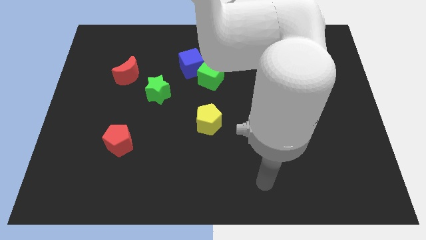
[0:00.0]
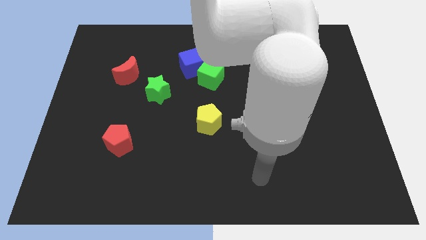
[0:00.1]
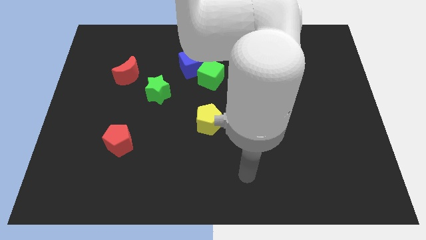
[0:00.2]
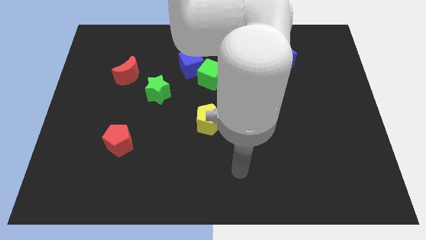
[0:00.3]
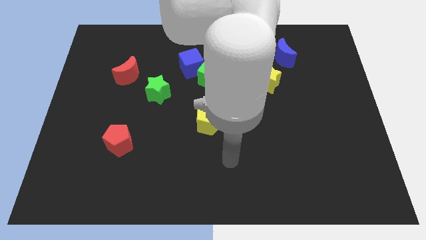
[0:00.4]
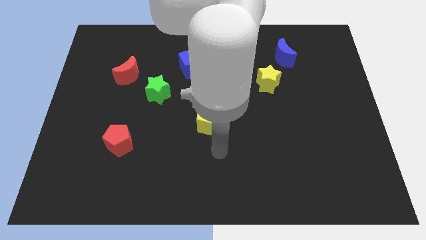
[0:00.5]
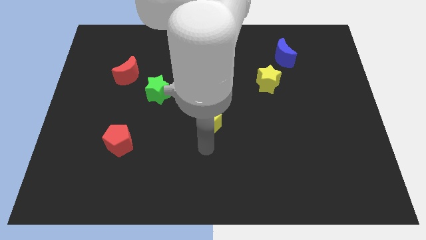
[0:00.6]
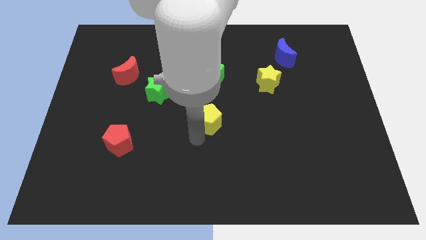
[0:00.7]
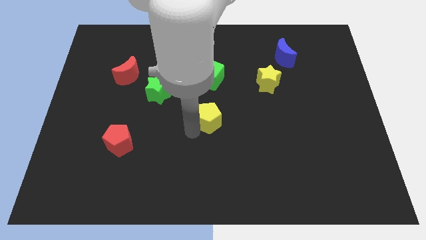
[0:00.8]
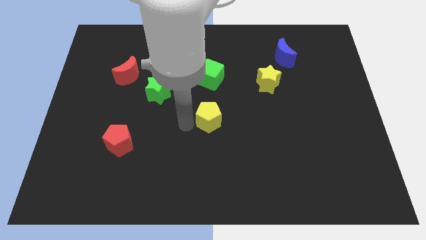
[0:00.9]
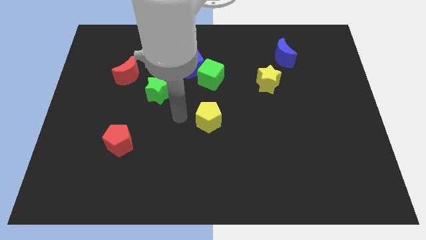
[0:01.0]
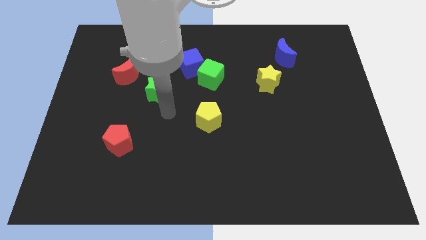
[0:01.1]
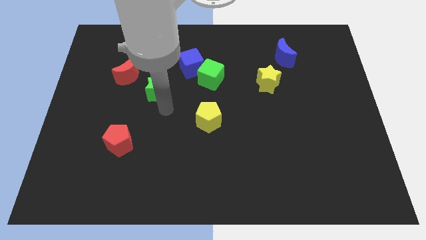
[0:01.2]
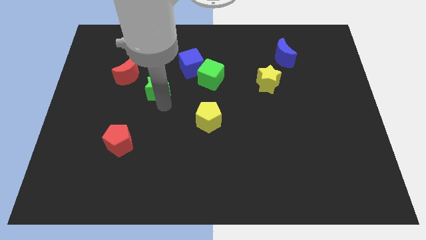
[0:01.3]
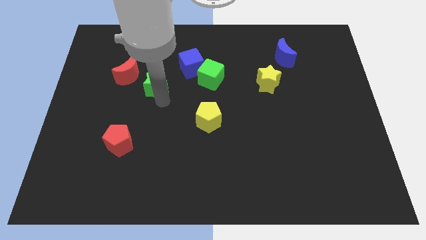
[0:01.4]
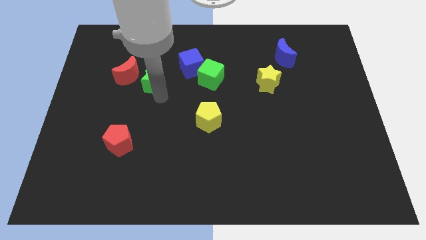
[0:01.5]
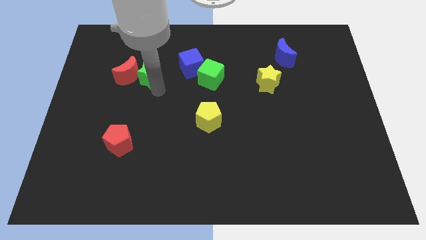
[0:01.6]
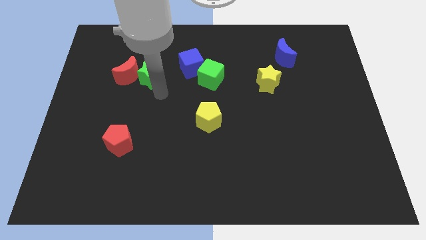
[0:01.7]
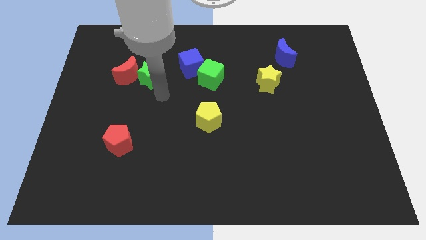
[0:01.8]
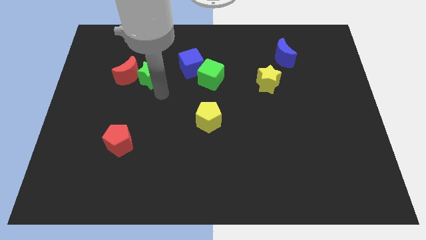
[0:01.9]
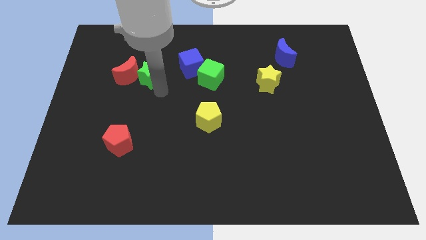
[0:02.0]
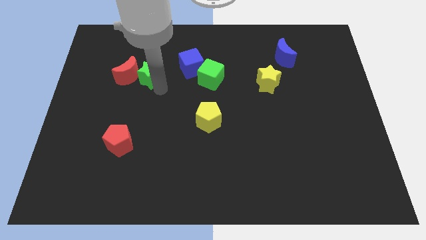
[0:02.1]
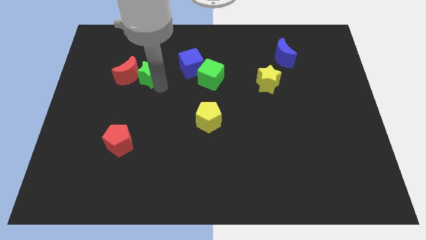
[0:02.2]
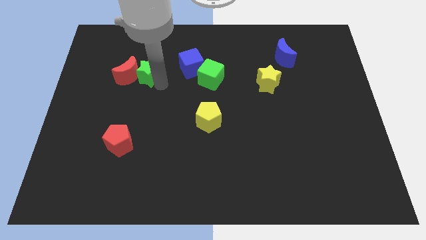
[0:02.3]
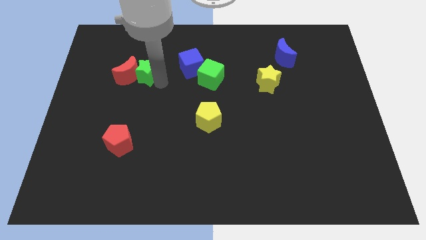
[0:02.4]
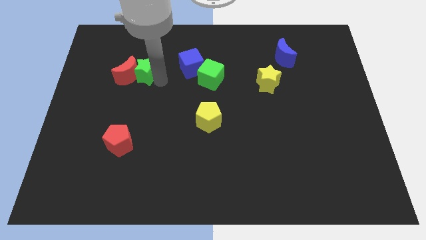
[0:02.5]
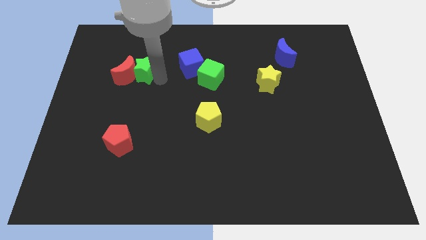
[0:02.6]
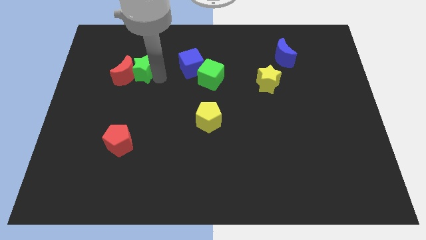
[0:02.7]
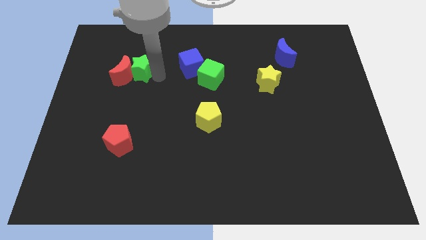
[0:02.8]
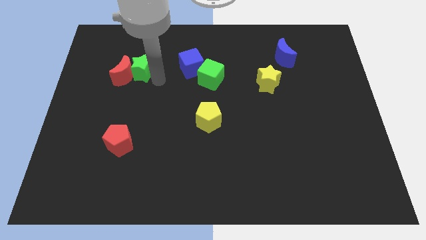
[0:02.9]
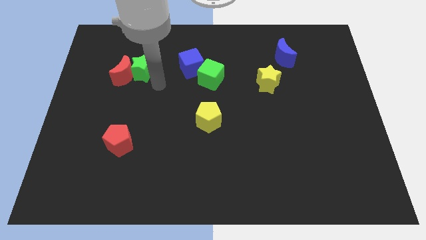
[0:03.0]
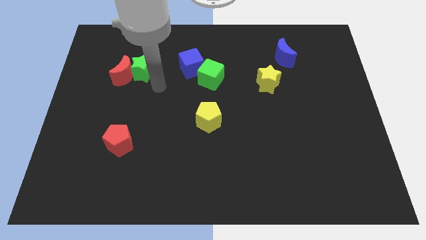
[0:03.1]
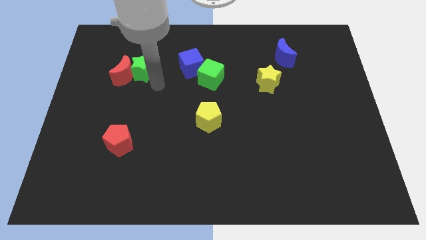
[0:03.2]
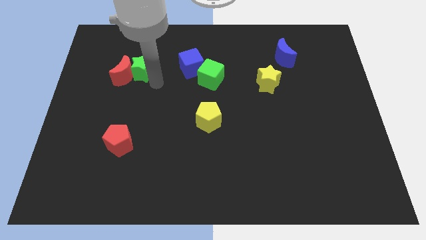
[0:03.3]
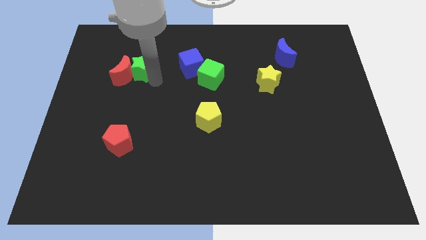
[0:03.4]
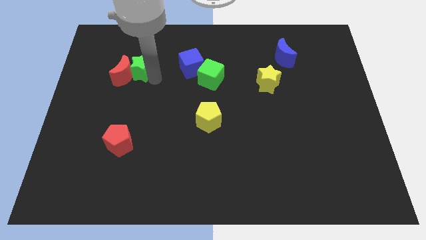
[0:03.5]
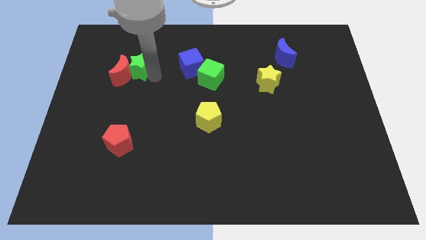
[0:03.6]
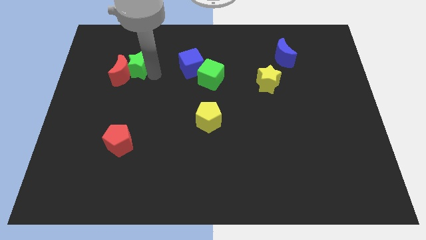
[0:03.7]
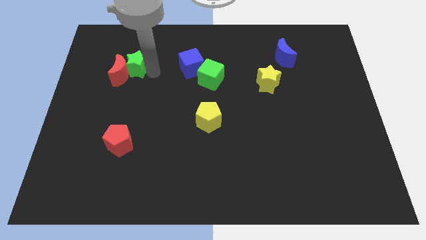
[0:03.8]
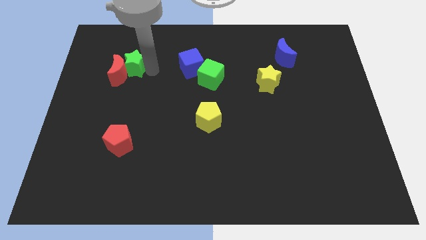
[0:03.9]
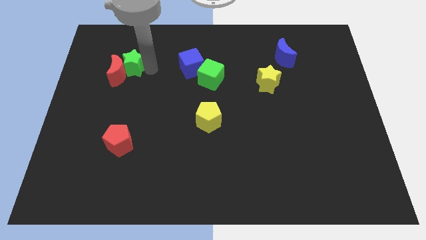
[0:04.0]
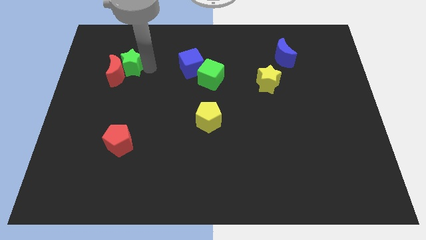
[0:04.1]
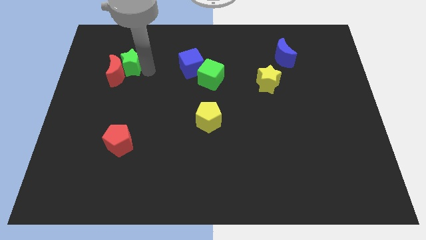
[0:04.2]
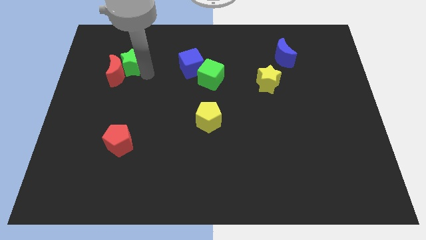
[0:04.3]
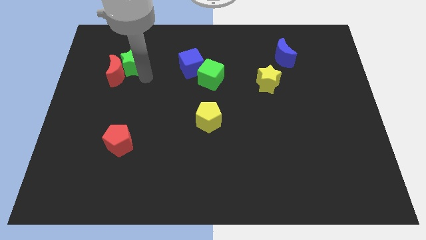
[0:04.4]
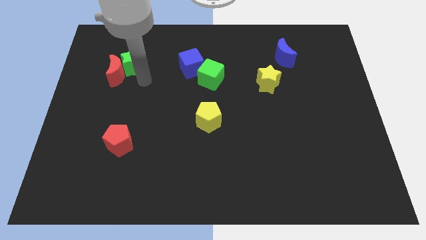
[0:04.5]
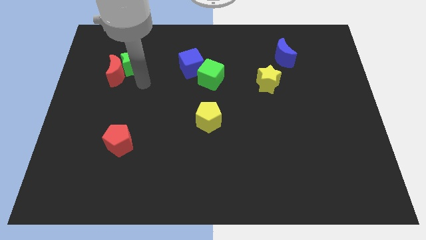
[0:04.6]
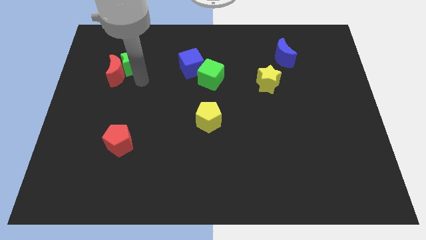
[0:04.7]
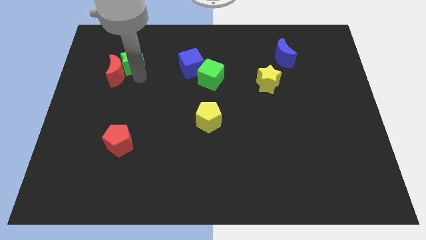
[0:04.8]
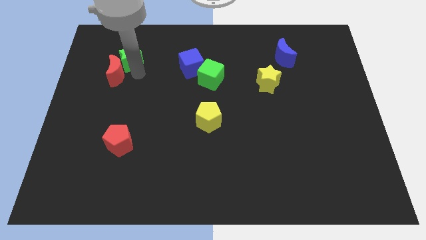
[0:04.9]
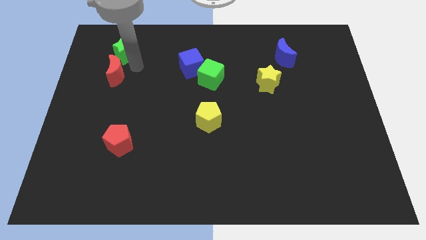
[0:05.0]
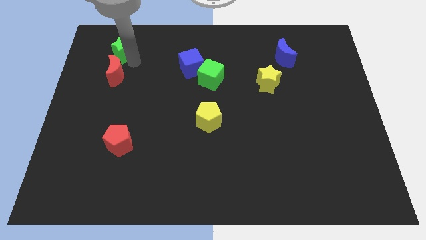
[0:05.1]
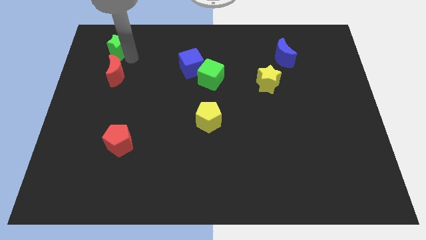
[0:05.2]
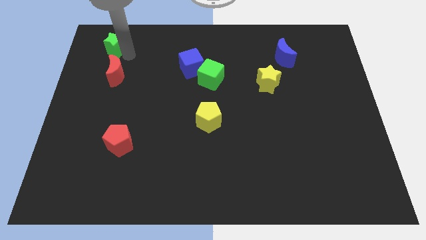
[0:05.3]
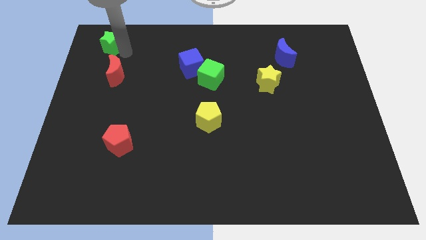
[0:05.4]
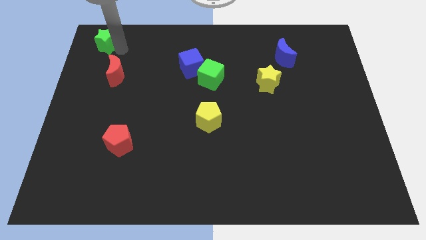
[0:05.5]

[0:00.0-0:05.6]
put the green star to the top left

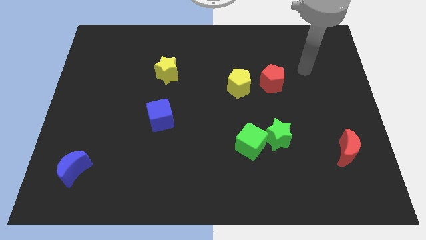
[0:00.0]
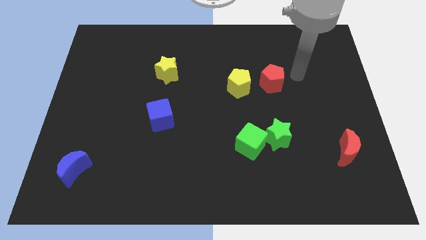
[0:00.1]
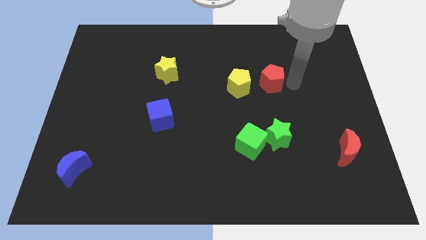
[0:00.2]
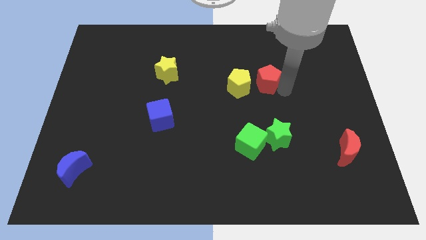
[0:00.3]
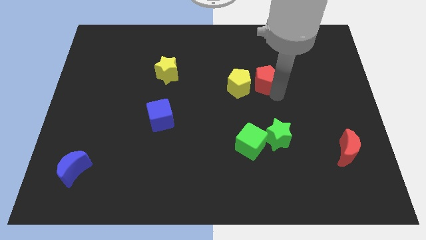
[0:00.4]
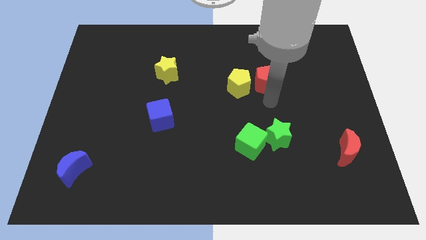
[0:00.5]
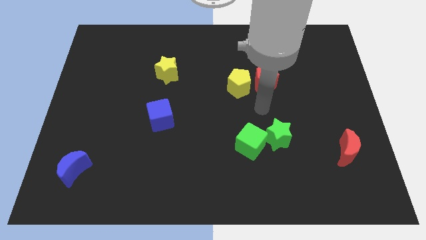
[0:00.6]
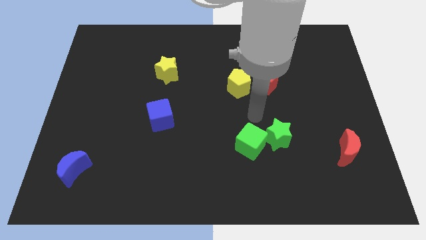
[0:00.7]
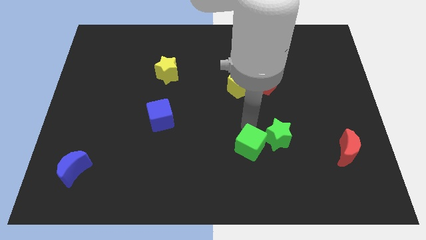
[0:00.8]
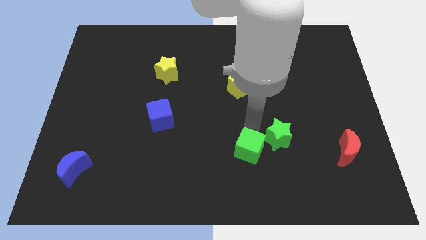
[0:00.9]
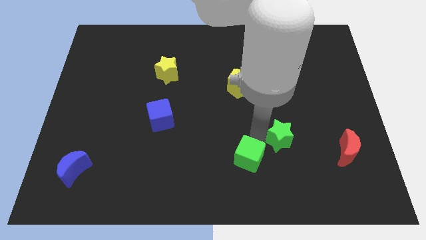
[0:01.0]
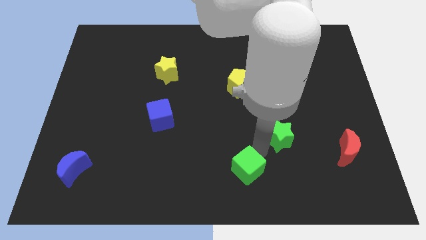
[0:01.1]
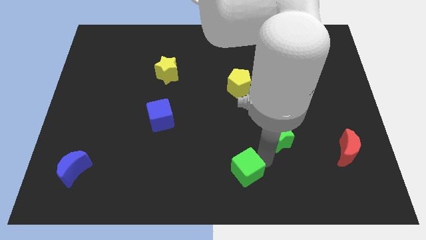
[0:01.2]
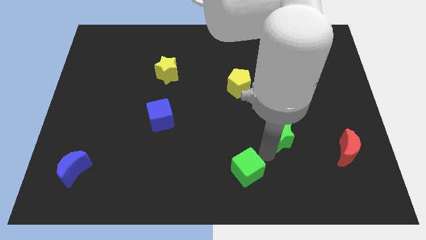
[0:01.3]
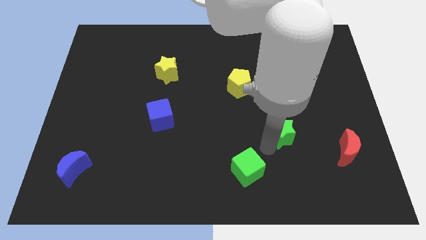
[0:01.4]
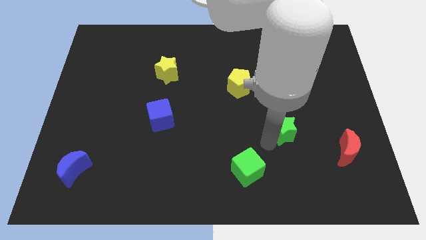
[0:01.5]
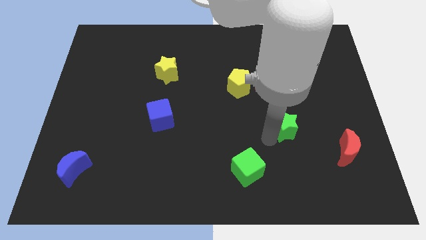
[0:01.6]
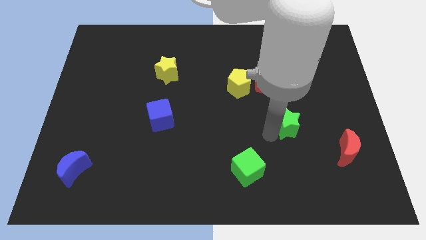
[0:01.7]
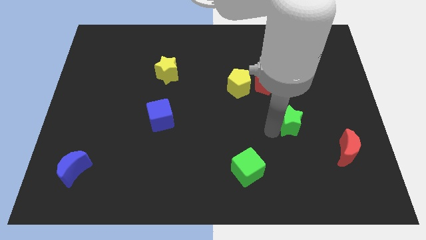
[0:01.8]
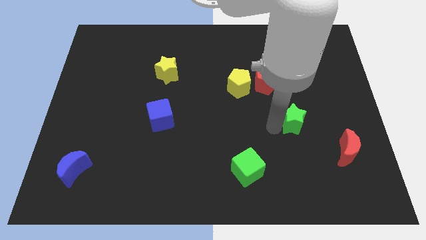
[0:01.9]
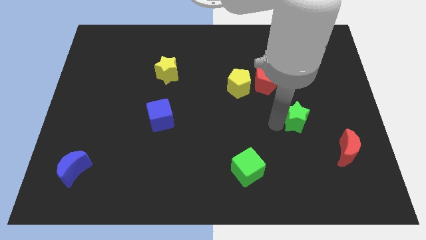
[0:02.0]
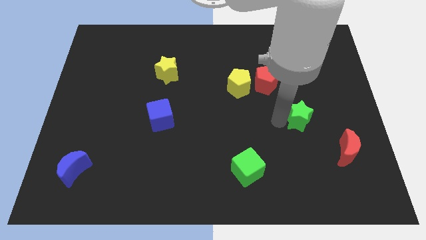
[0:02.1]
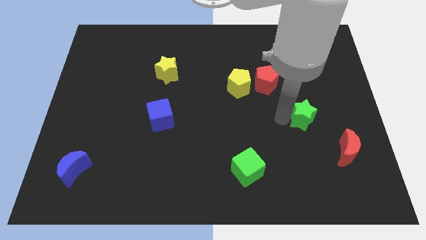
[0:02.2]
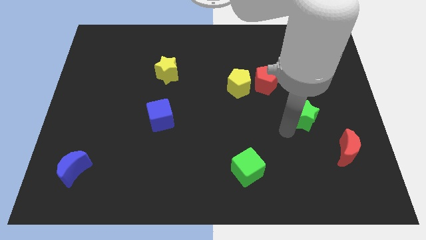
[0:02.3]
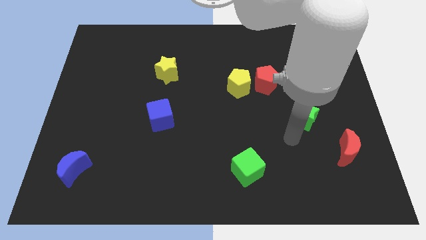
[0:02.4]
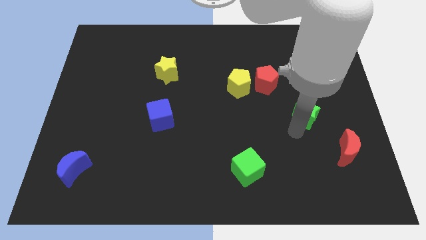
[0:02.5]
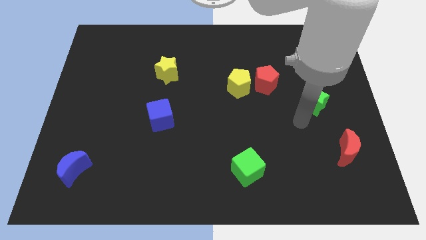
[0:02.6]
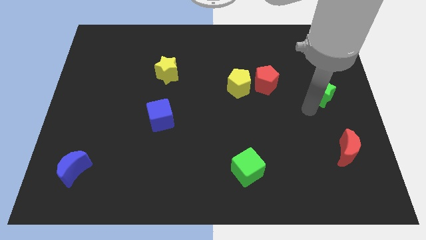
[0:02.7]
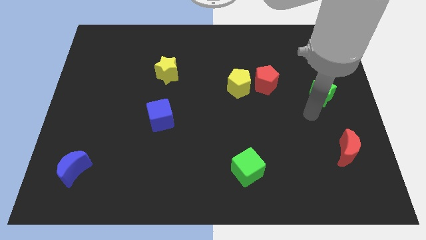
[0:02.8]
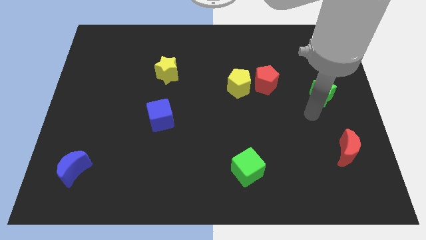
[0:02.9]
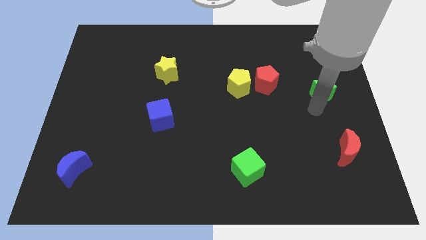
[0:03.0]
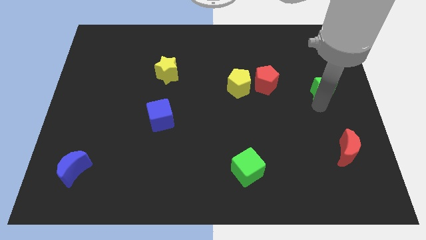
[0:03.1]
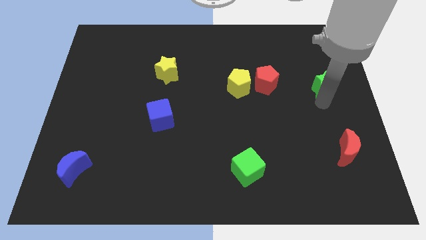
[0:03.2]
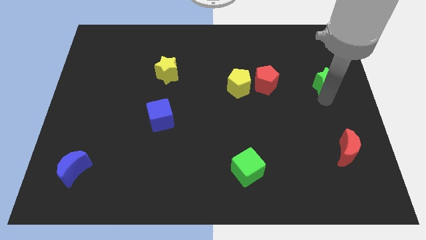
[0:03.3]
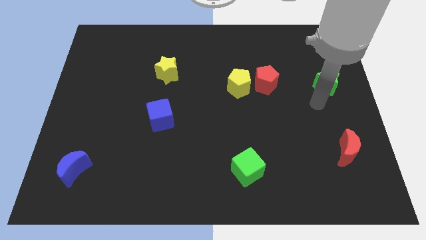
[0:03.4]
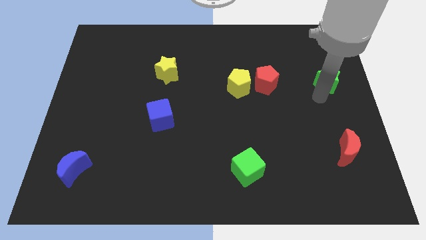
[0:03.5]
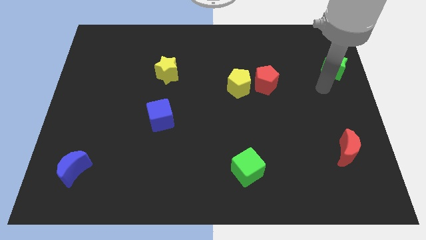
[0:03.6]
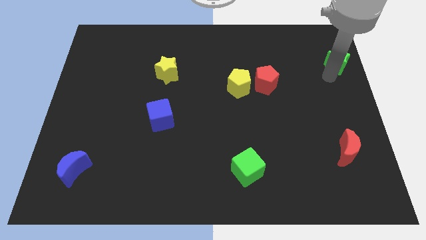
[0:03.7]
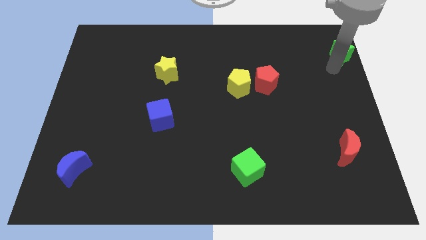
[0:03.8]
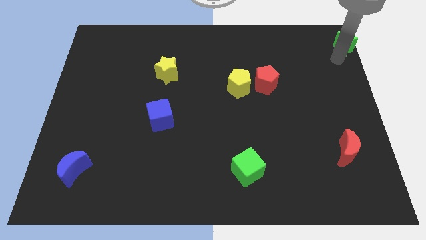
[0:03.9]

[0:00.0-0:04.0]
slide the green star to the top right corner
